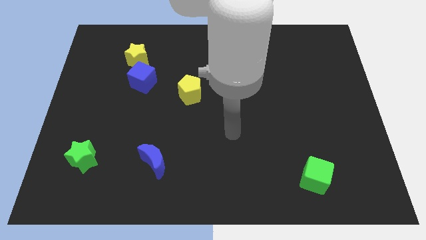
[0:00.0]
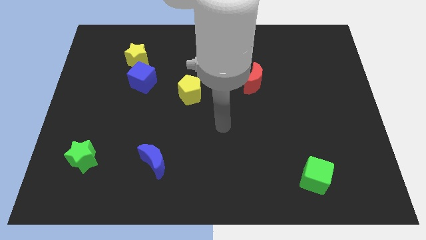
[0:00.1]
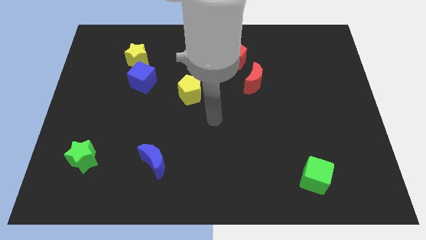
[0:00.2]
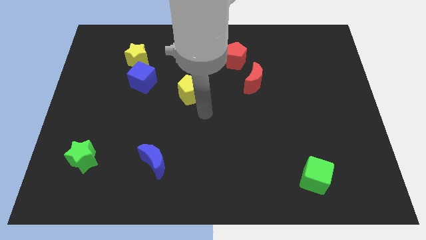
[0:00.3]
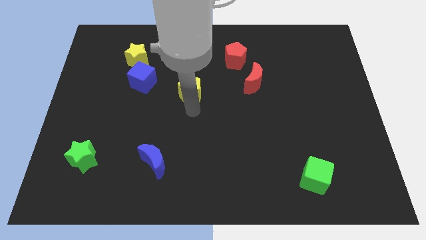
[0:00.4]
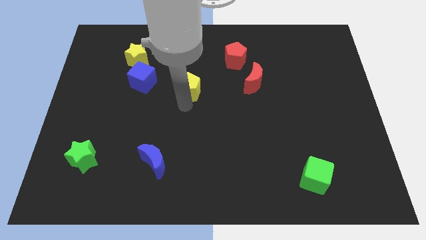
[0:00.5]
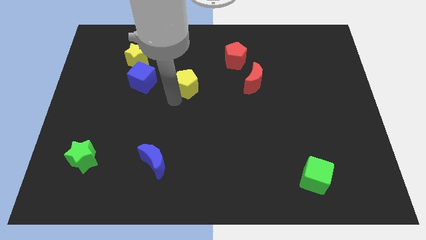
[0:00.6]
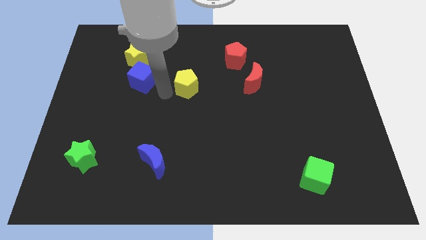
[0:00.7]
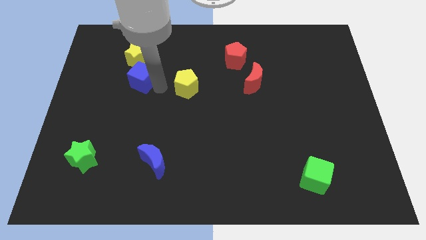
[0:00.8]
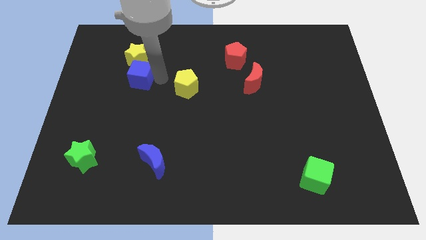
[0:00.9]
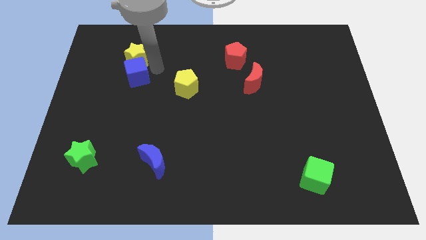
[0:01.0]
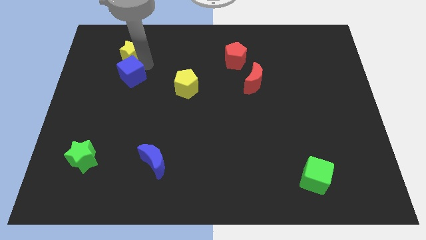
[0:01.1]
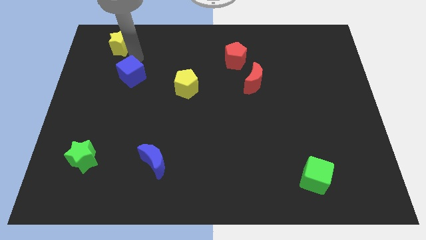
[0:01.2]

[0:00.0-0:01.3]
move the blue cube away from the yellow star

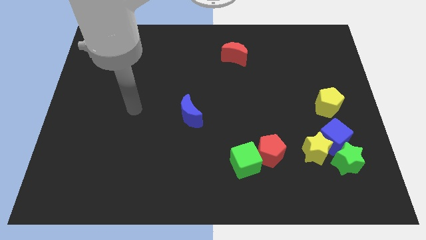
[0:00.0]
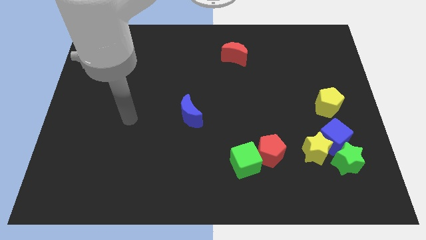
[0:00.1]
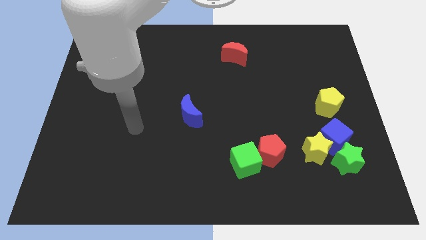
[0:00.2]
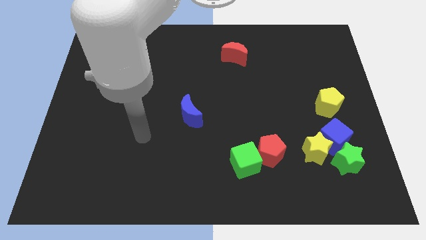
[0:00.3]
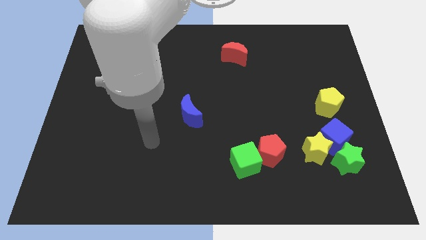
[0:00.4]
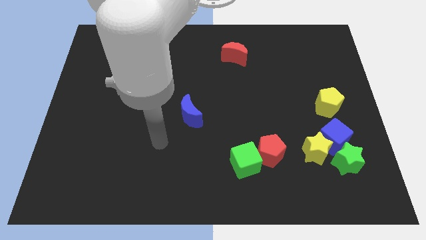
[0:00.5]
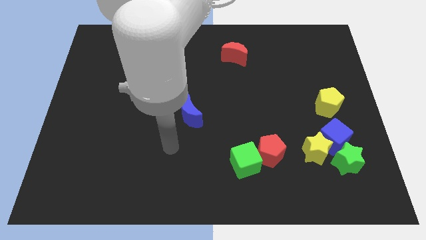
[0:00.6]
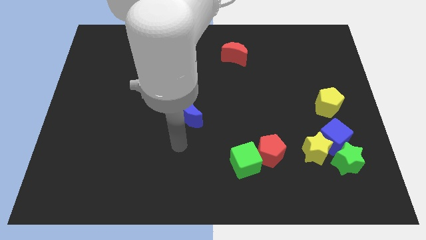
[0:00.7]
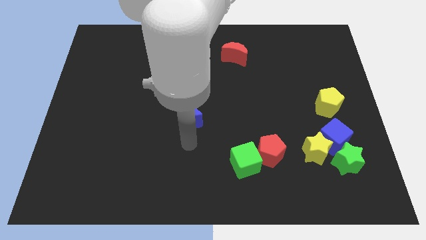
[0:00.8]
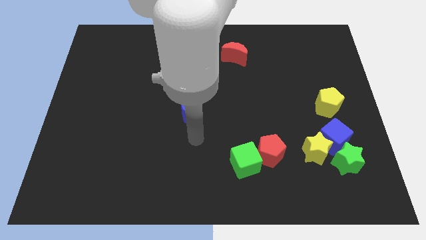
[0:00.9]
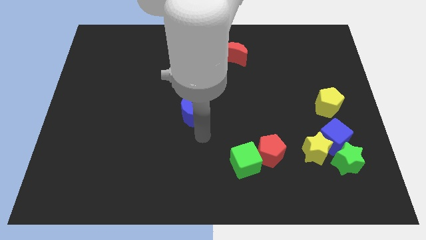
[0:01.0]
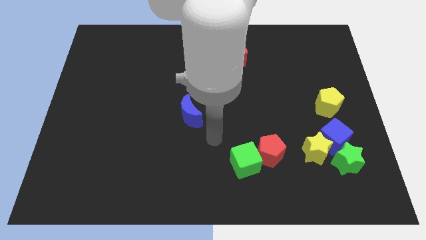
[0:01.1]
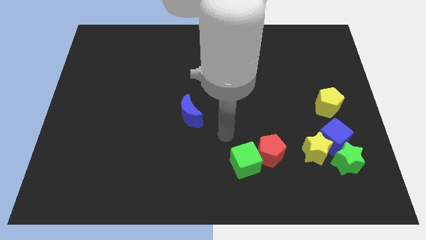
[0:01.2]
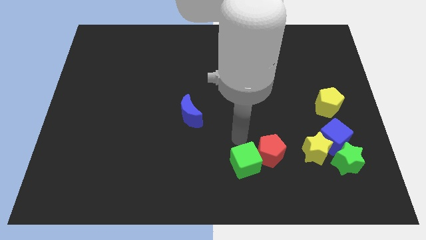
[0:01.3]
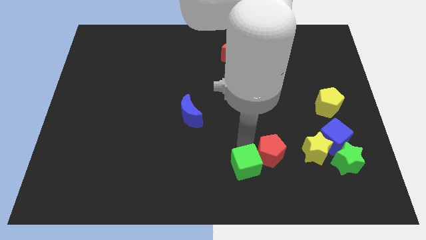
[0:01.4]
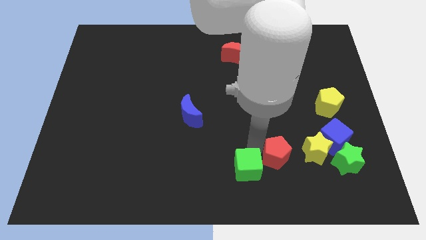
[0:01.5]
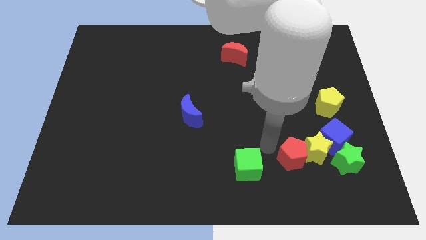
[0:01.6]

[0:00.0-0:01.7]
move the green cube away from the red pentagon

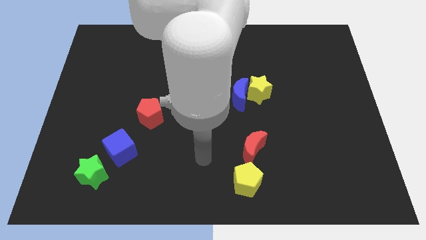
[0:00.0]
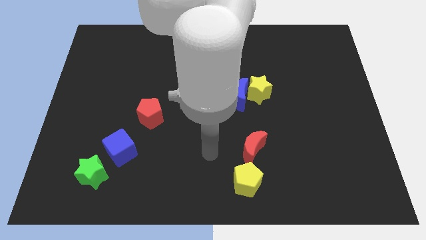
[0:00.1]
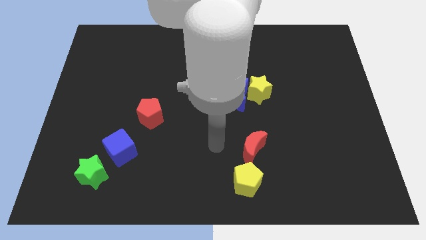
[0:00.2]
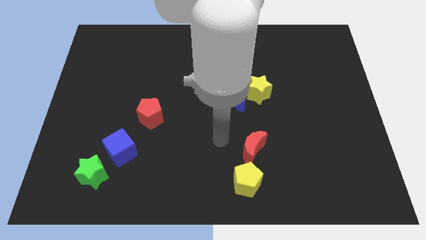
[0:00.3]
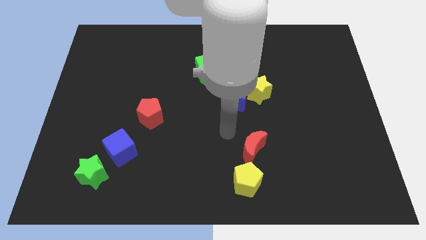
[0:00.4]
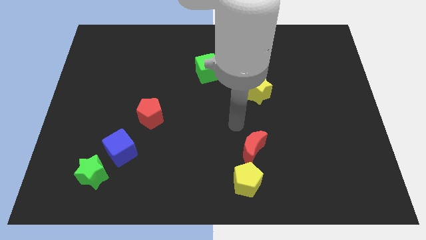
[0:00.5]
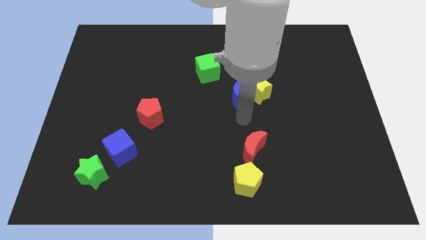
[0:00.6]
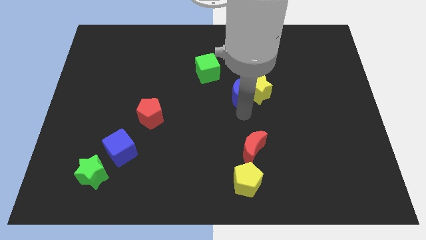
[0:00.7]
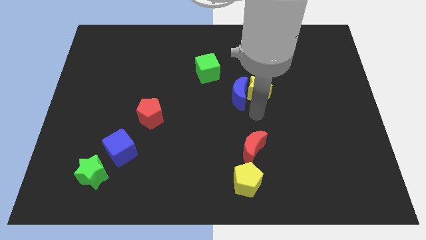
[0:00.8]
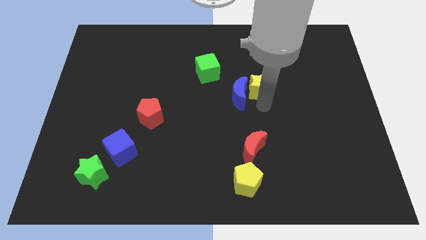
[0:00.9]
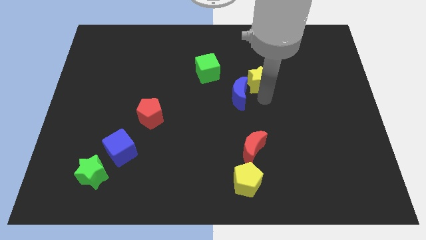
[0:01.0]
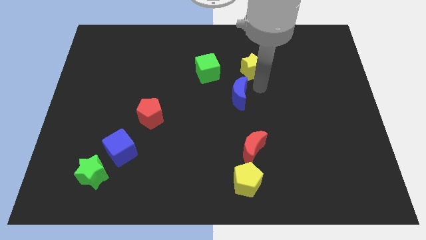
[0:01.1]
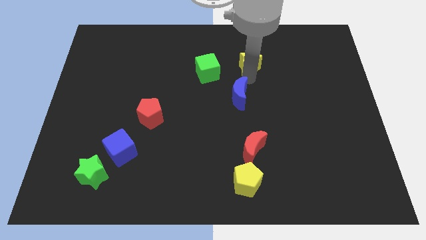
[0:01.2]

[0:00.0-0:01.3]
pull the blue moon apart from the yellow star

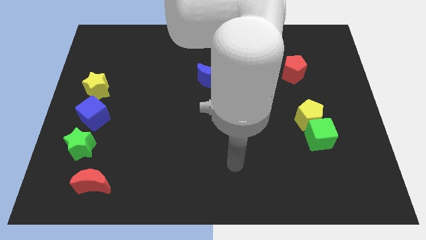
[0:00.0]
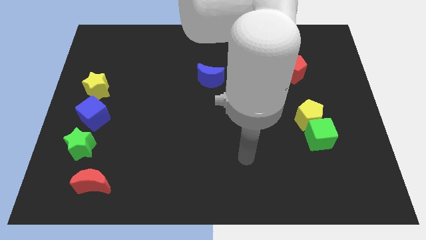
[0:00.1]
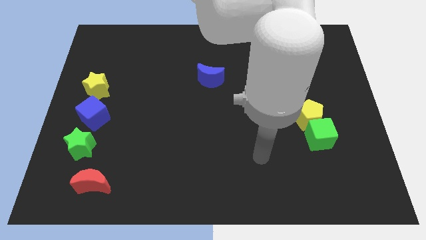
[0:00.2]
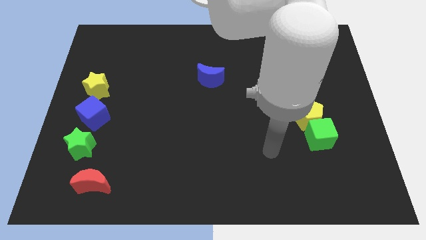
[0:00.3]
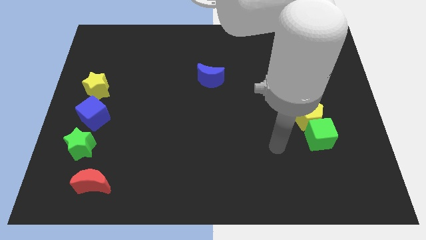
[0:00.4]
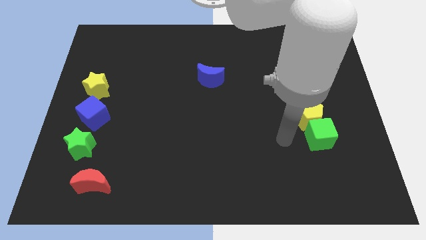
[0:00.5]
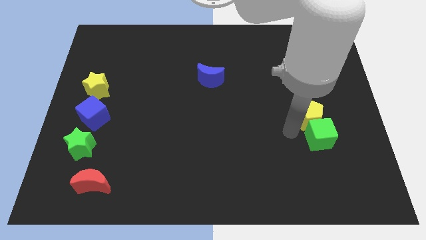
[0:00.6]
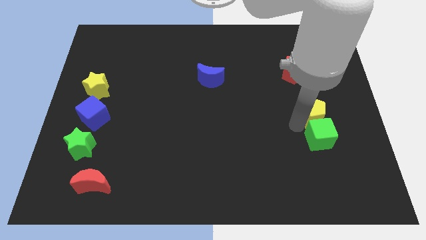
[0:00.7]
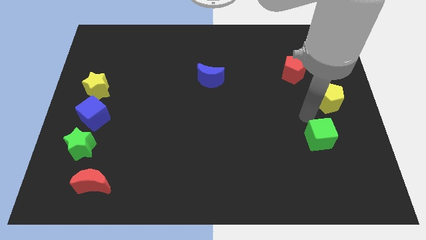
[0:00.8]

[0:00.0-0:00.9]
move the green cube away from the yellow pentagon

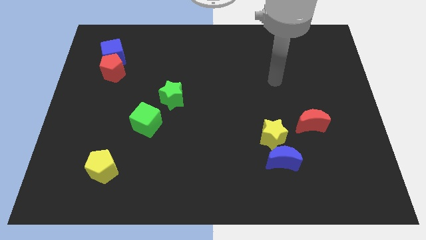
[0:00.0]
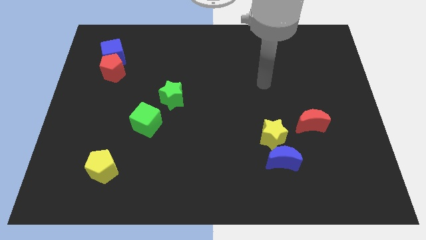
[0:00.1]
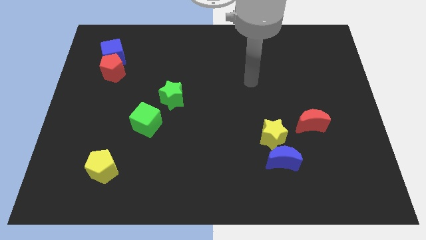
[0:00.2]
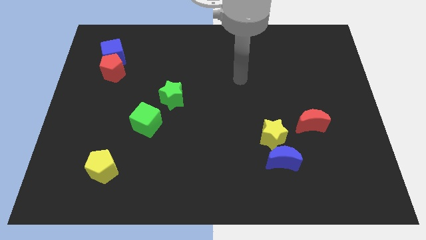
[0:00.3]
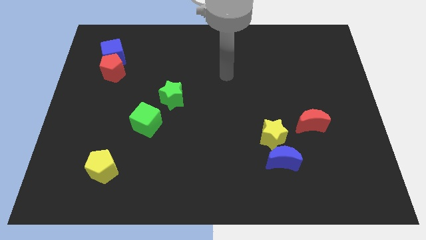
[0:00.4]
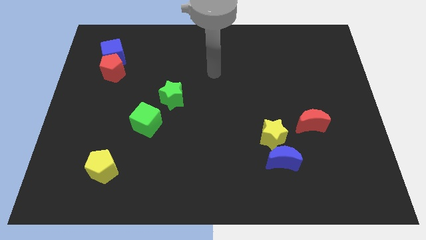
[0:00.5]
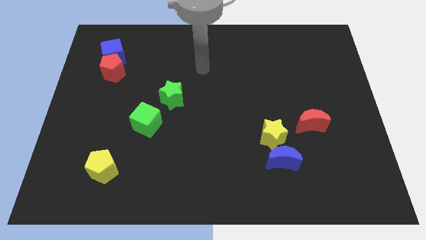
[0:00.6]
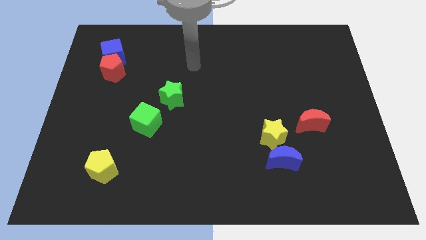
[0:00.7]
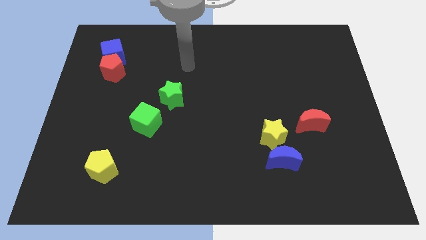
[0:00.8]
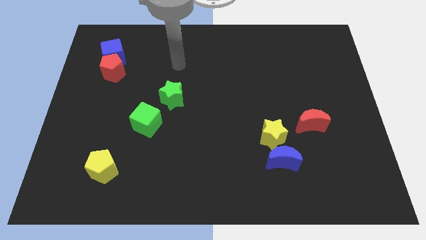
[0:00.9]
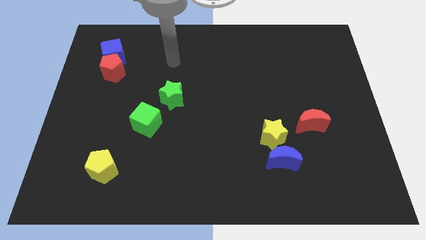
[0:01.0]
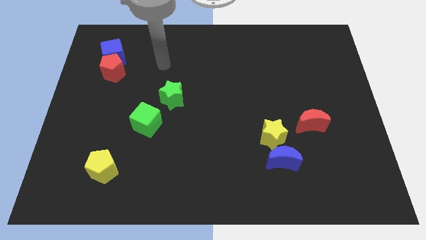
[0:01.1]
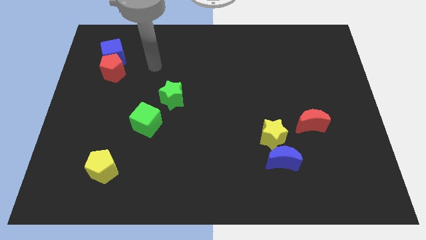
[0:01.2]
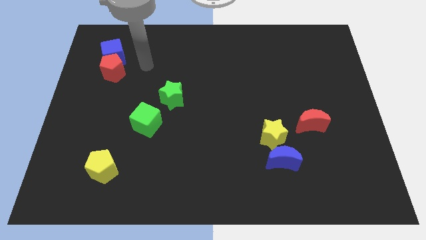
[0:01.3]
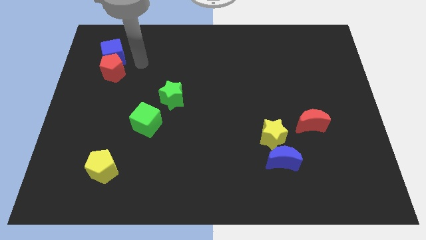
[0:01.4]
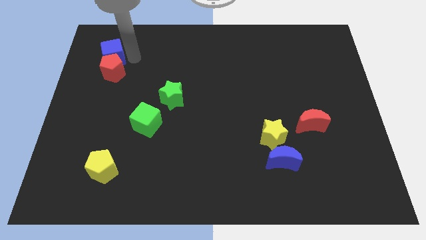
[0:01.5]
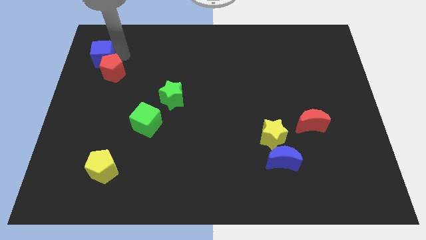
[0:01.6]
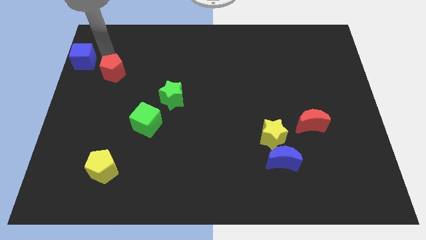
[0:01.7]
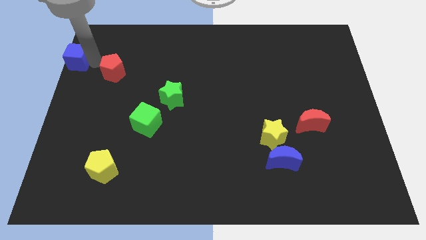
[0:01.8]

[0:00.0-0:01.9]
move the red pentagon away from the blue cube

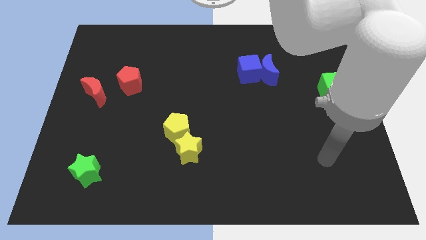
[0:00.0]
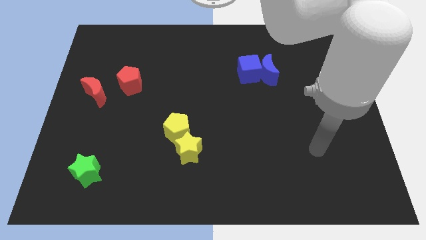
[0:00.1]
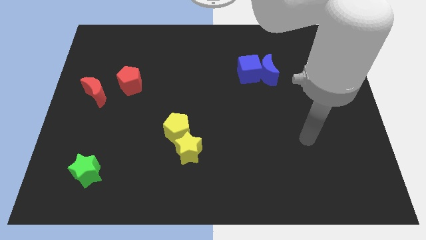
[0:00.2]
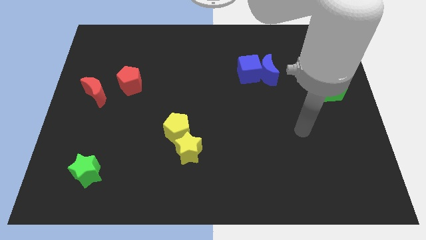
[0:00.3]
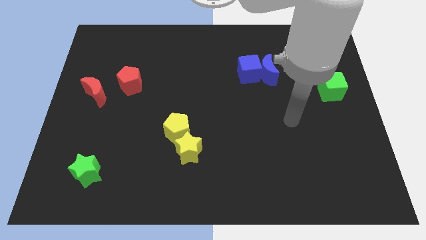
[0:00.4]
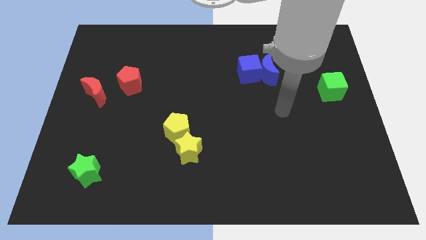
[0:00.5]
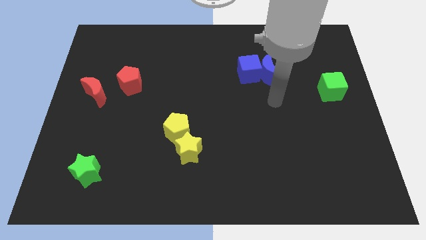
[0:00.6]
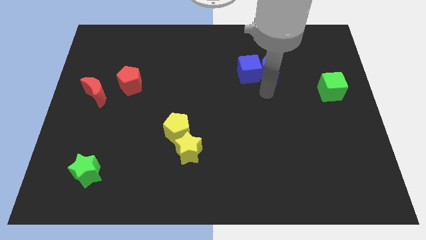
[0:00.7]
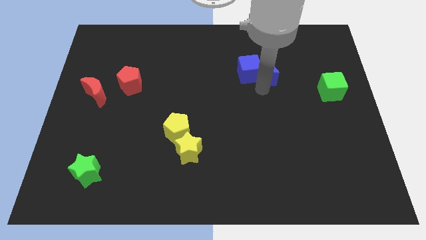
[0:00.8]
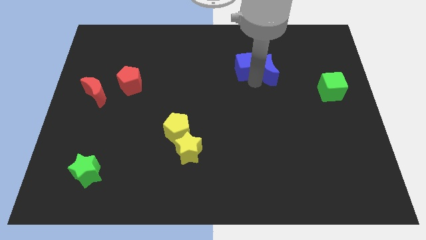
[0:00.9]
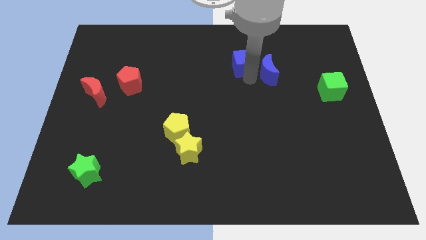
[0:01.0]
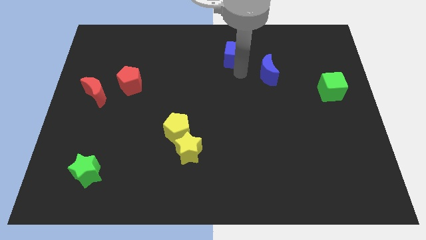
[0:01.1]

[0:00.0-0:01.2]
separate the blue moon from the blue cube

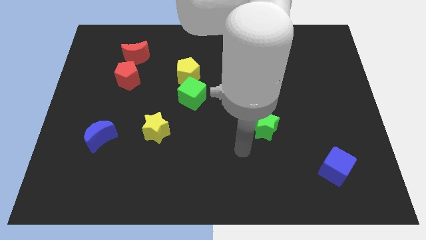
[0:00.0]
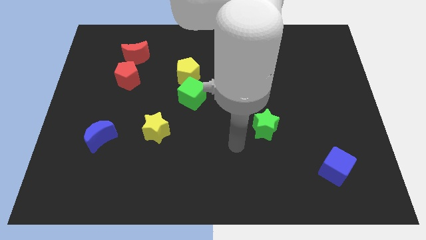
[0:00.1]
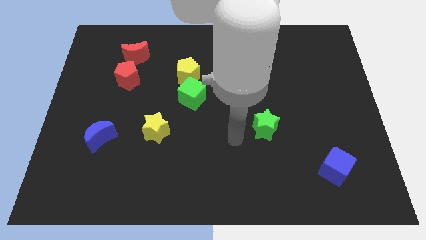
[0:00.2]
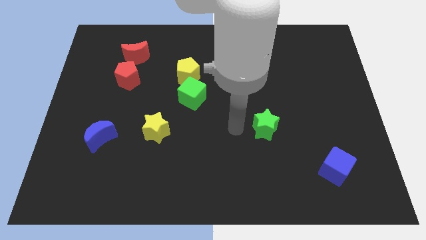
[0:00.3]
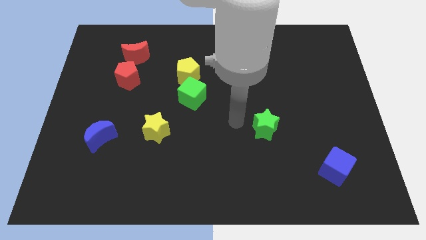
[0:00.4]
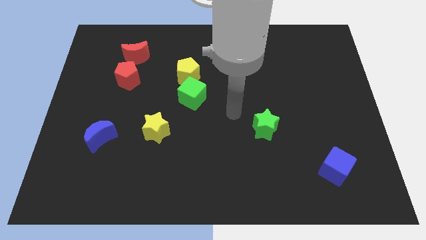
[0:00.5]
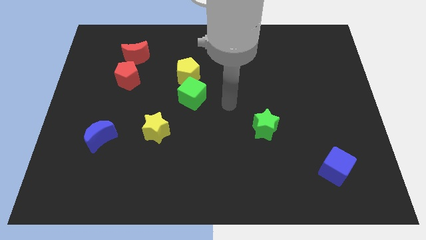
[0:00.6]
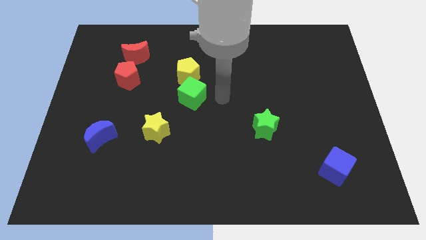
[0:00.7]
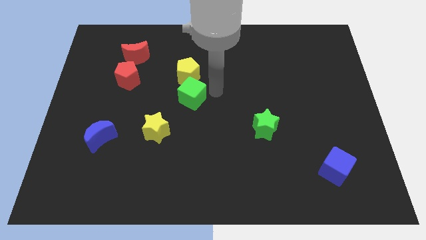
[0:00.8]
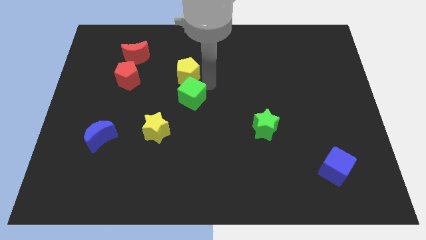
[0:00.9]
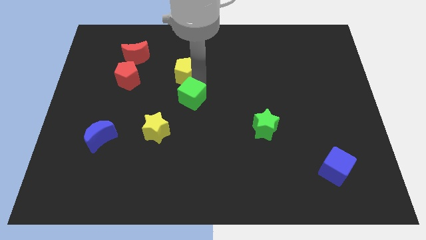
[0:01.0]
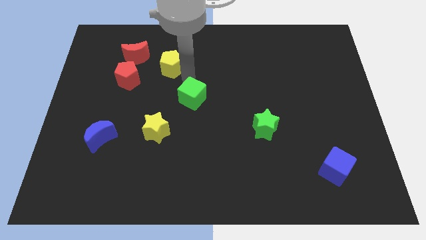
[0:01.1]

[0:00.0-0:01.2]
pull the green cube apart from the yellow pentagon
